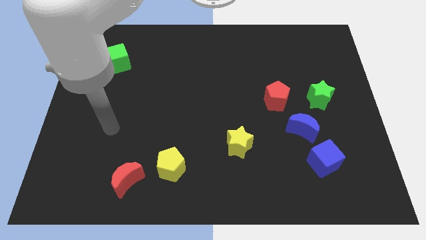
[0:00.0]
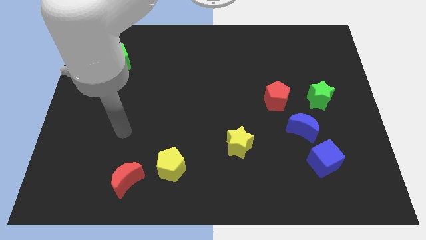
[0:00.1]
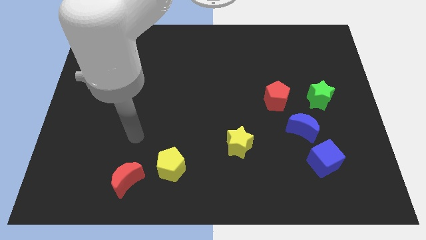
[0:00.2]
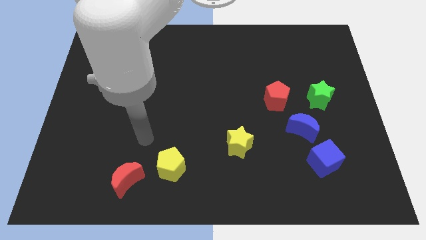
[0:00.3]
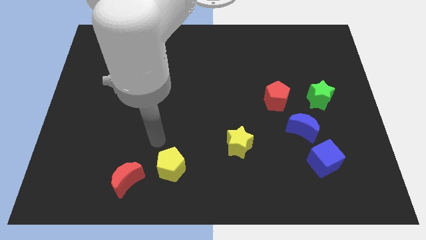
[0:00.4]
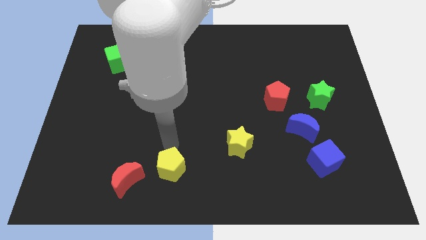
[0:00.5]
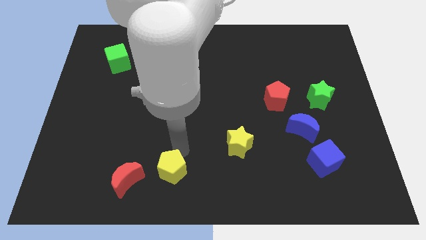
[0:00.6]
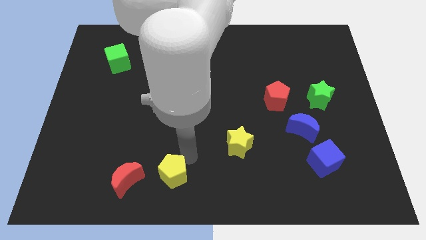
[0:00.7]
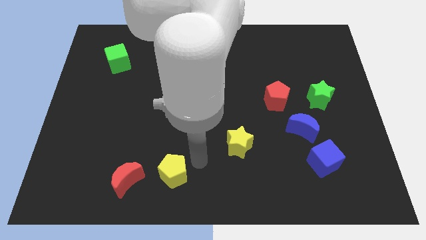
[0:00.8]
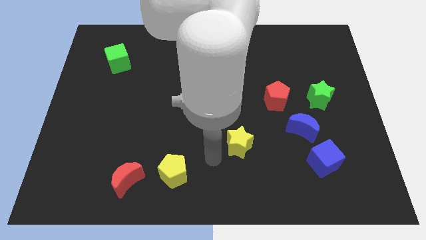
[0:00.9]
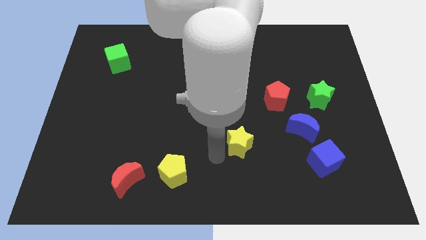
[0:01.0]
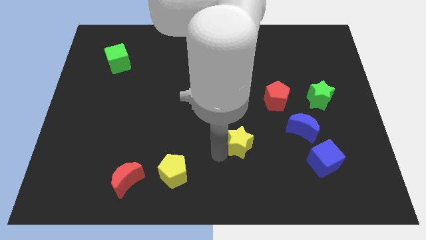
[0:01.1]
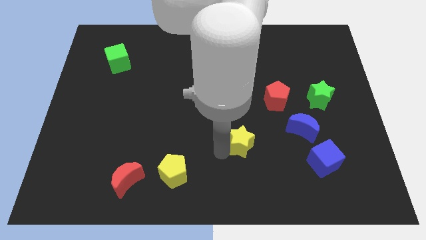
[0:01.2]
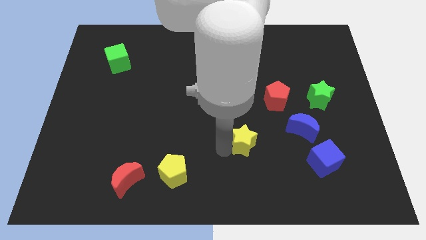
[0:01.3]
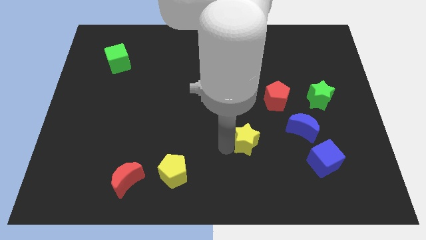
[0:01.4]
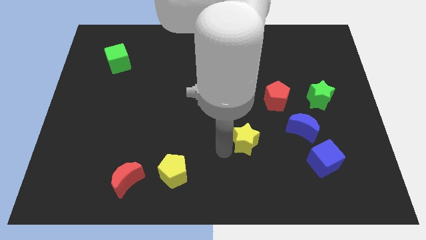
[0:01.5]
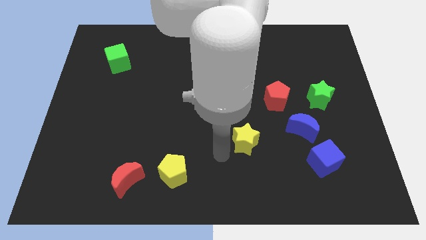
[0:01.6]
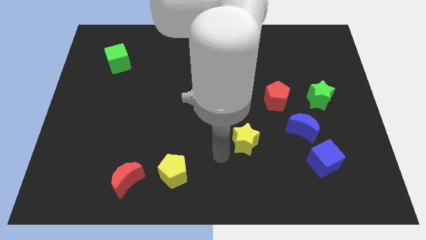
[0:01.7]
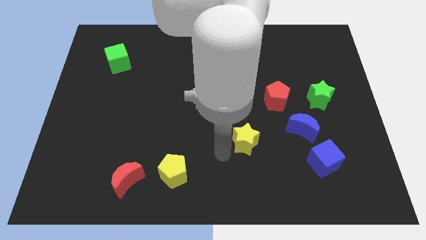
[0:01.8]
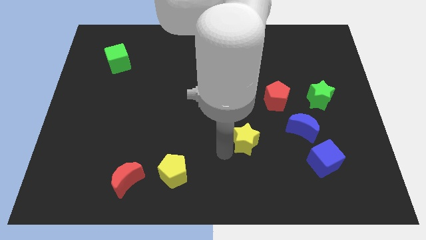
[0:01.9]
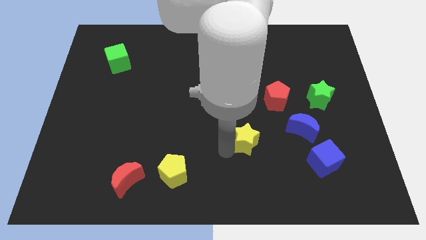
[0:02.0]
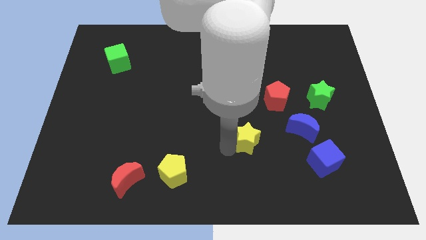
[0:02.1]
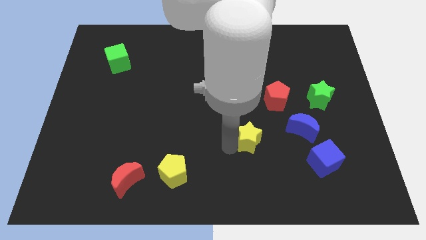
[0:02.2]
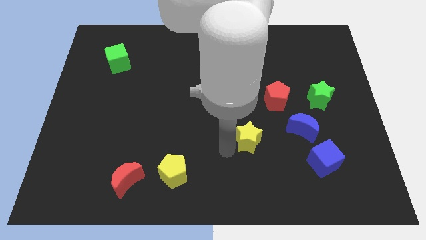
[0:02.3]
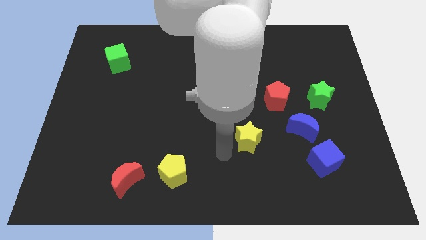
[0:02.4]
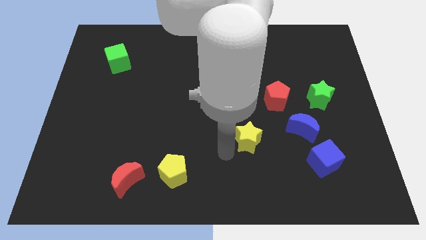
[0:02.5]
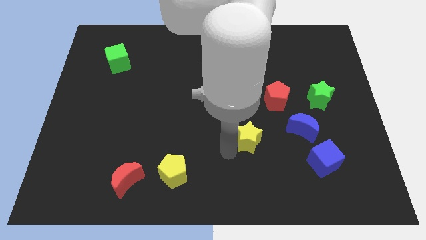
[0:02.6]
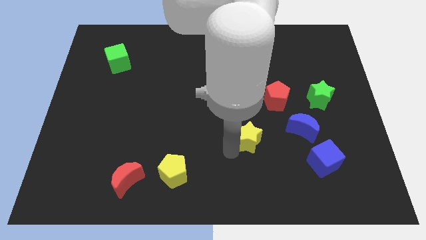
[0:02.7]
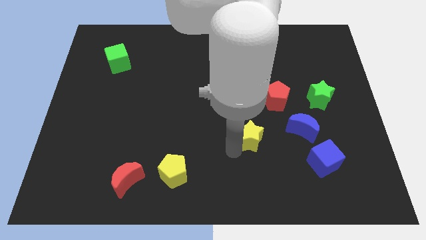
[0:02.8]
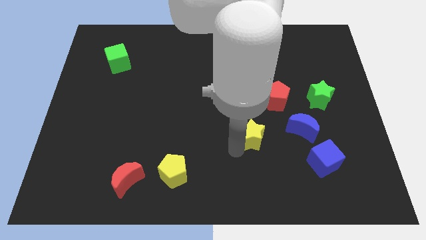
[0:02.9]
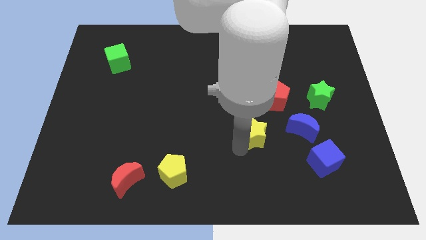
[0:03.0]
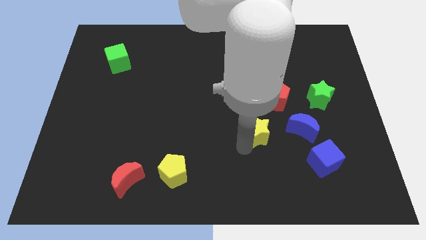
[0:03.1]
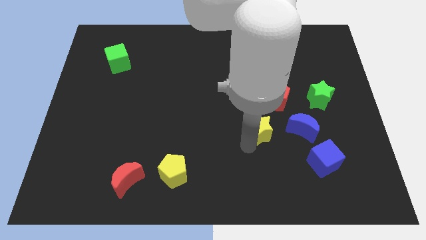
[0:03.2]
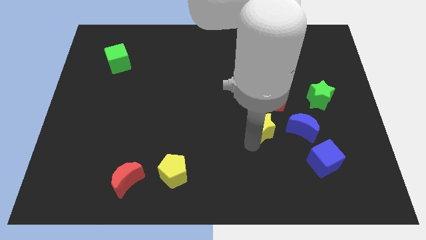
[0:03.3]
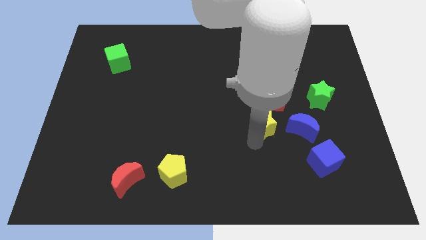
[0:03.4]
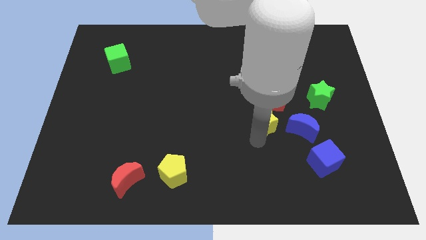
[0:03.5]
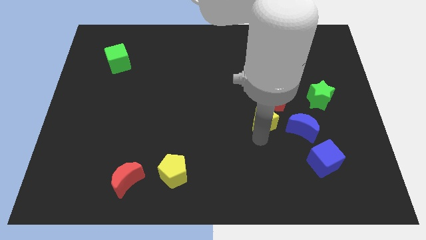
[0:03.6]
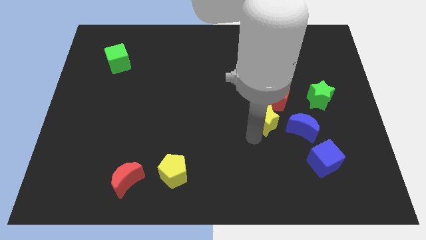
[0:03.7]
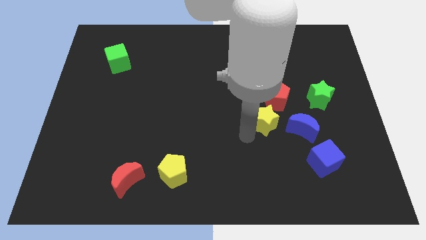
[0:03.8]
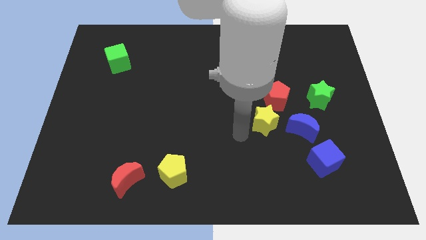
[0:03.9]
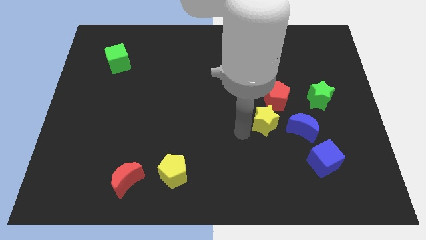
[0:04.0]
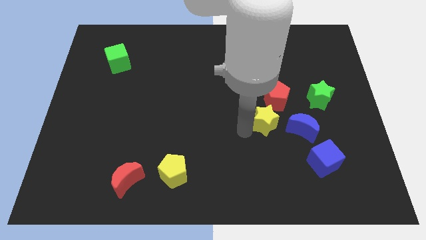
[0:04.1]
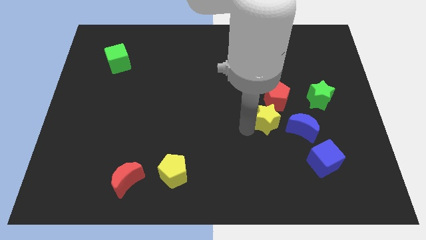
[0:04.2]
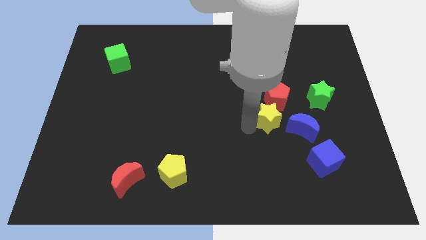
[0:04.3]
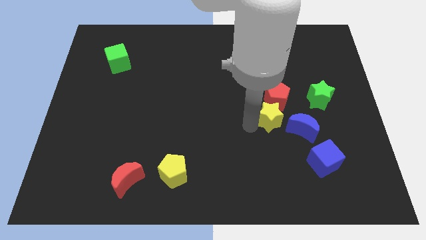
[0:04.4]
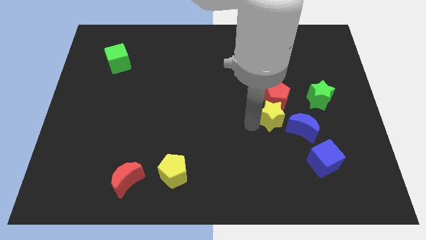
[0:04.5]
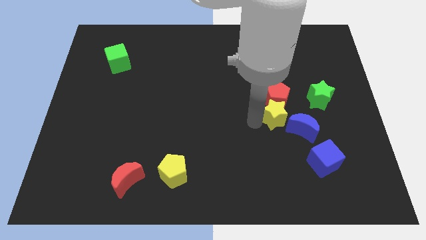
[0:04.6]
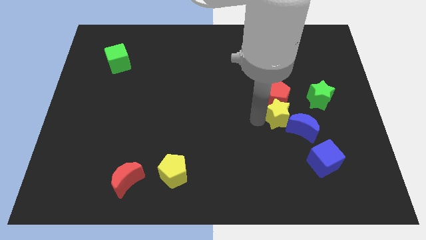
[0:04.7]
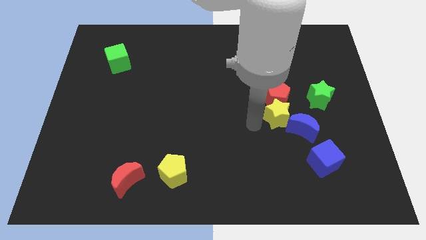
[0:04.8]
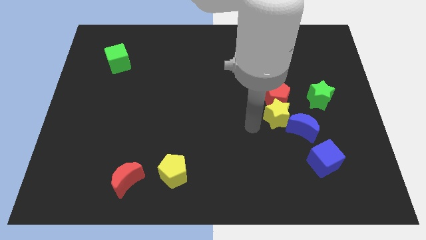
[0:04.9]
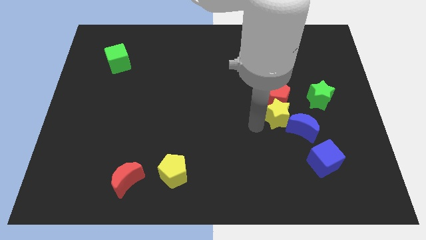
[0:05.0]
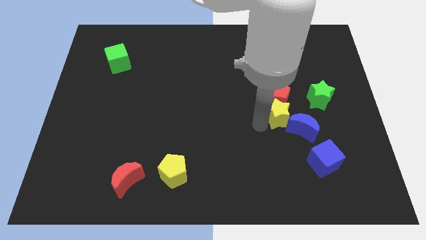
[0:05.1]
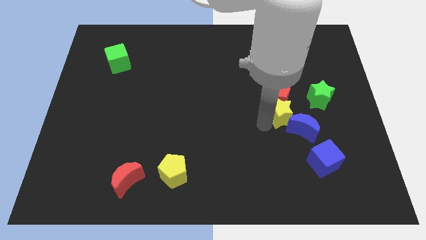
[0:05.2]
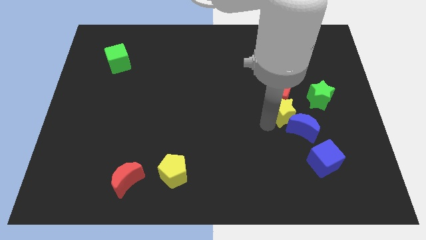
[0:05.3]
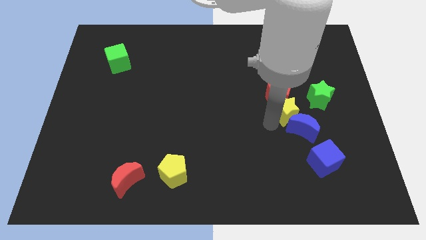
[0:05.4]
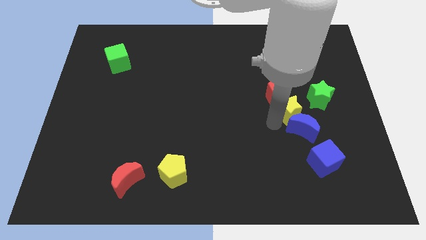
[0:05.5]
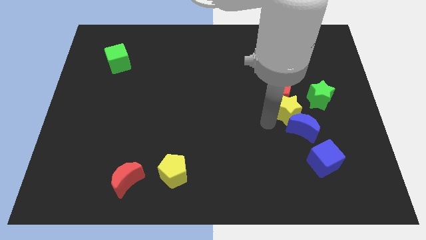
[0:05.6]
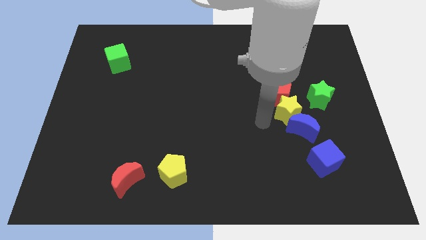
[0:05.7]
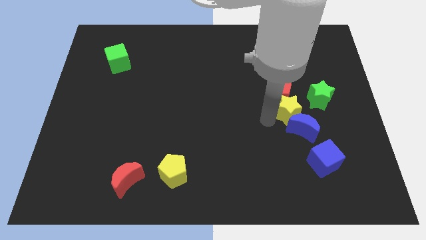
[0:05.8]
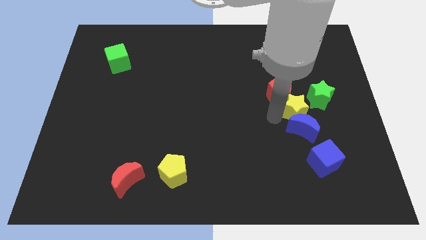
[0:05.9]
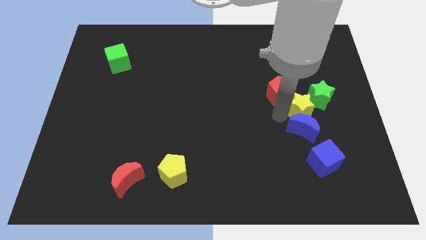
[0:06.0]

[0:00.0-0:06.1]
slide the yellow star to the green star

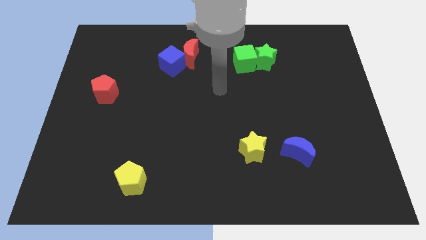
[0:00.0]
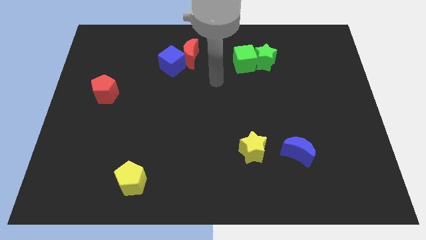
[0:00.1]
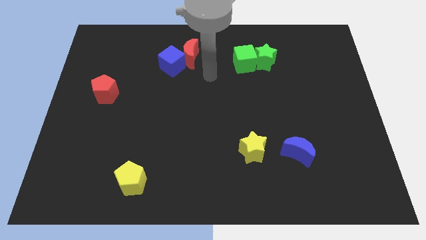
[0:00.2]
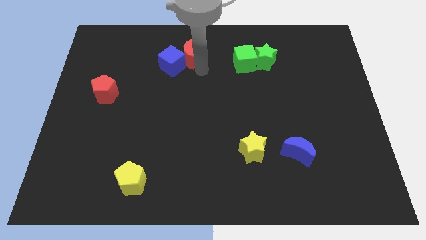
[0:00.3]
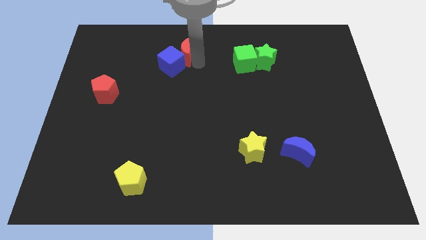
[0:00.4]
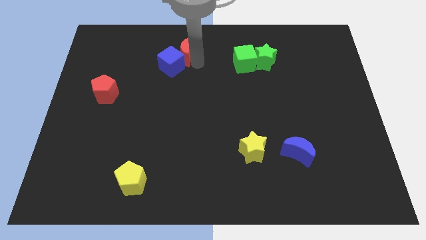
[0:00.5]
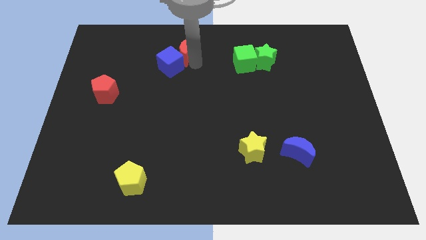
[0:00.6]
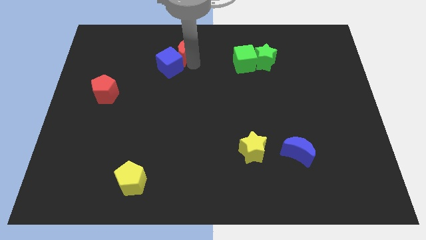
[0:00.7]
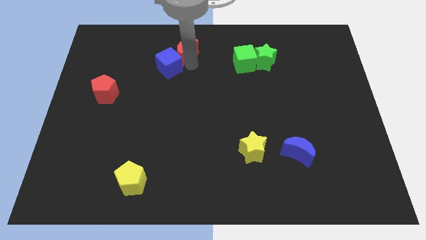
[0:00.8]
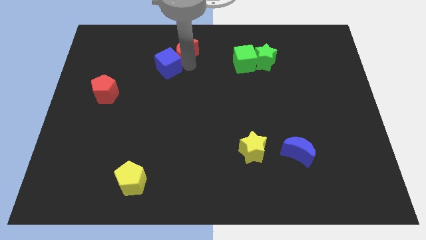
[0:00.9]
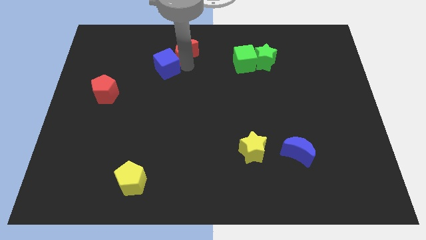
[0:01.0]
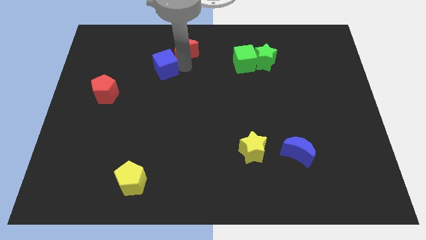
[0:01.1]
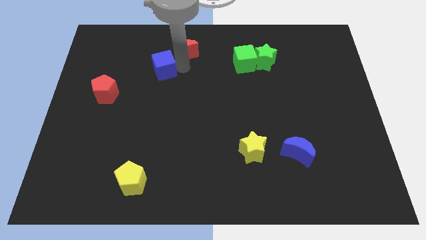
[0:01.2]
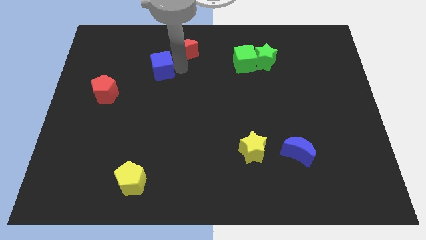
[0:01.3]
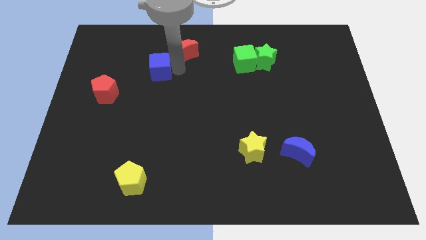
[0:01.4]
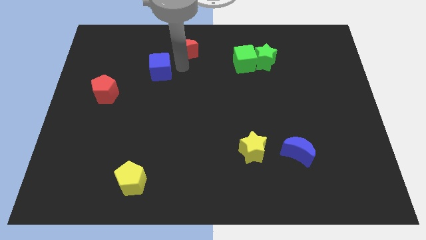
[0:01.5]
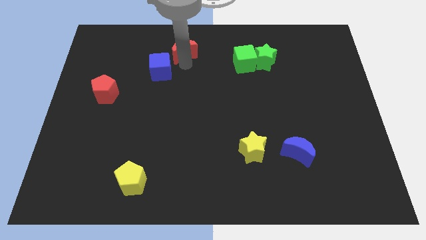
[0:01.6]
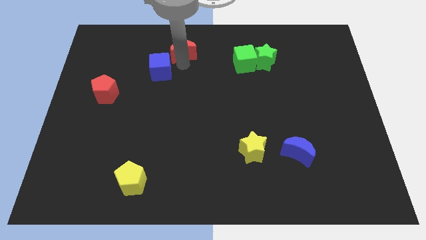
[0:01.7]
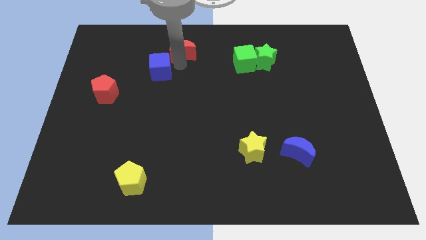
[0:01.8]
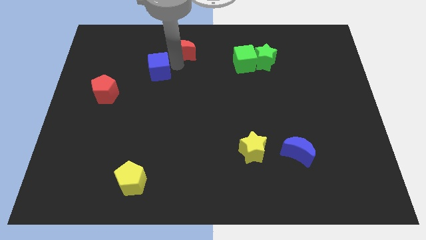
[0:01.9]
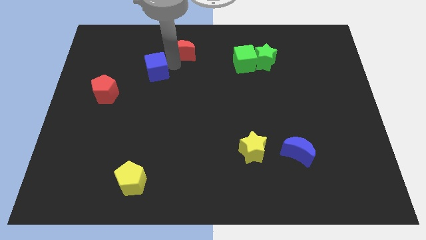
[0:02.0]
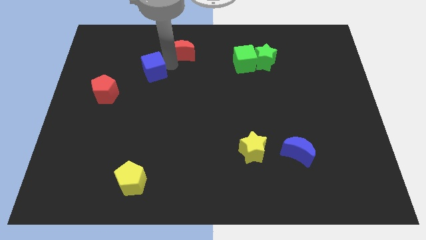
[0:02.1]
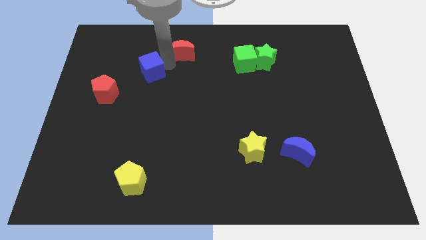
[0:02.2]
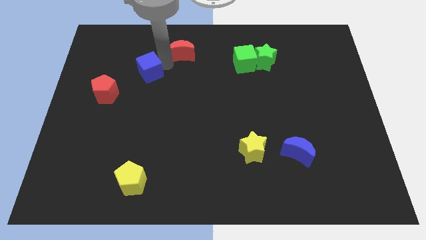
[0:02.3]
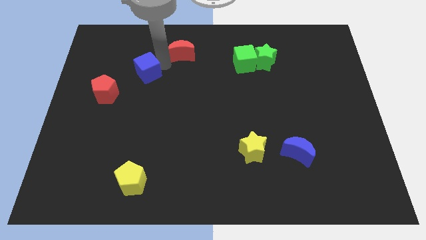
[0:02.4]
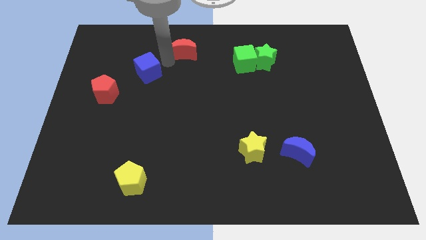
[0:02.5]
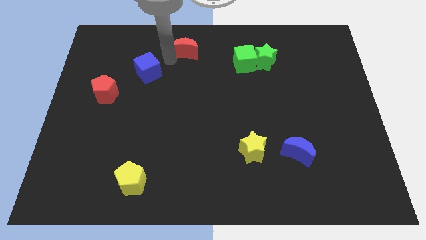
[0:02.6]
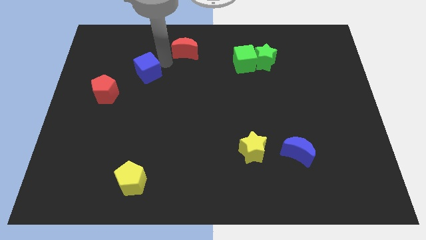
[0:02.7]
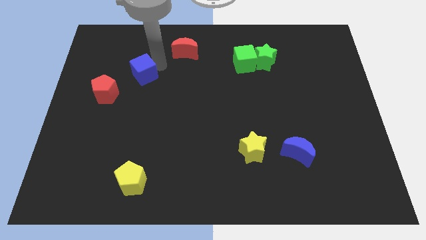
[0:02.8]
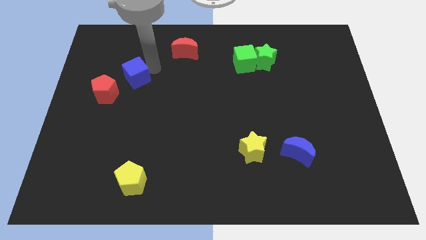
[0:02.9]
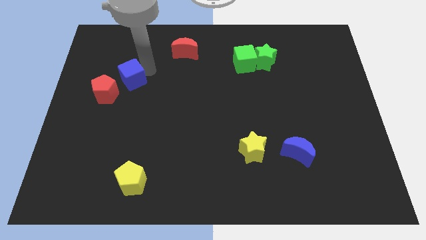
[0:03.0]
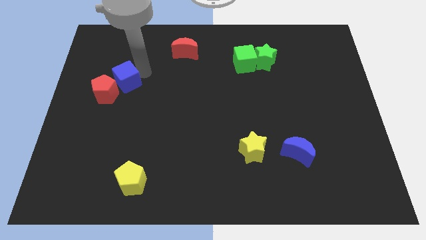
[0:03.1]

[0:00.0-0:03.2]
move the blue cube to the red pentagon
